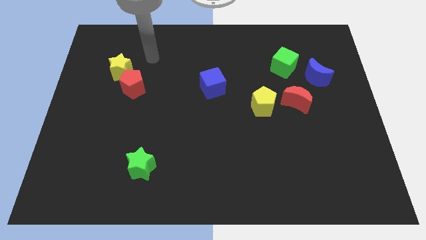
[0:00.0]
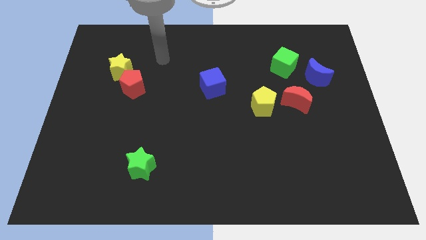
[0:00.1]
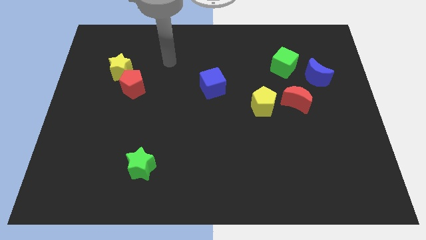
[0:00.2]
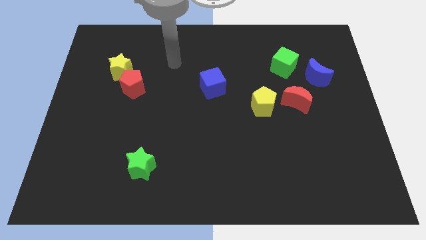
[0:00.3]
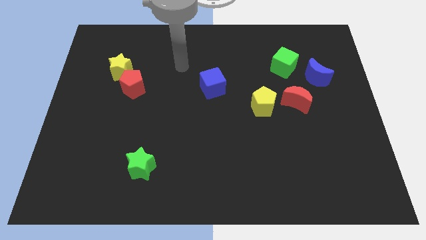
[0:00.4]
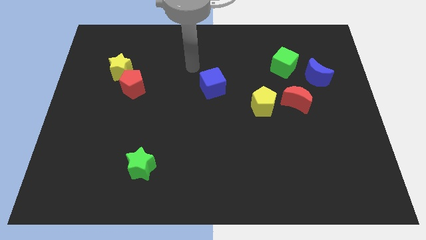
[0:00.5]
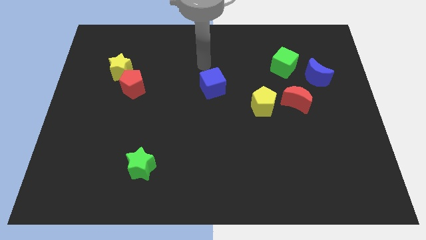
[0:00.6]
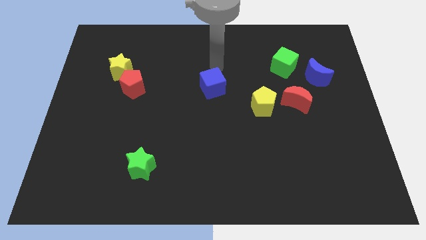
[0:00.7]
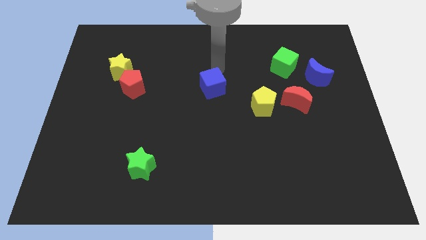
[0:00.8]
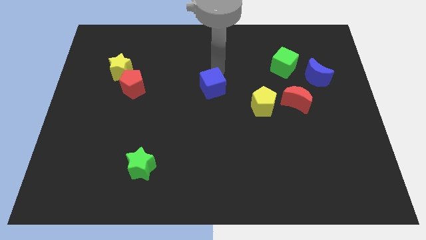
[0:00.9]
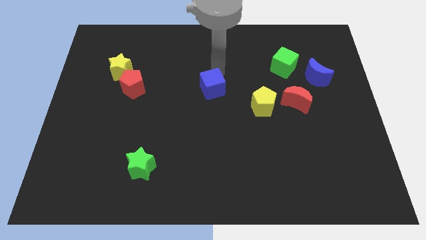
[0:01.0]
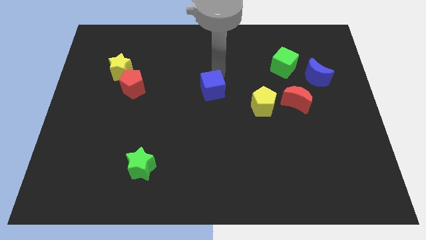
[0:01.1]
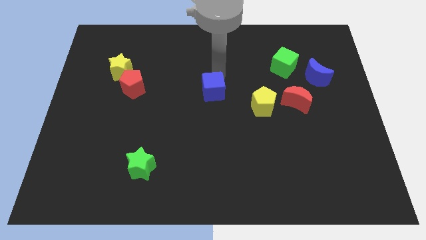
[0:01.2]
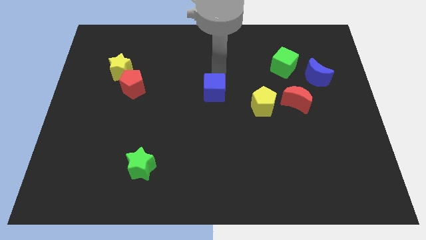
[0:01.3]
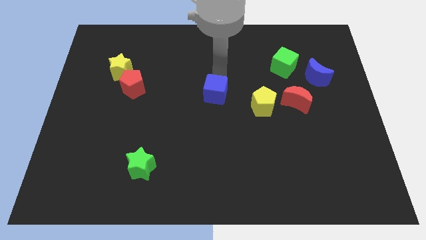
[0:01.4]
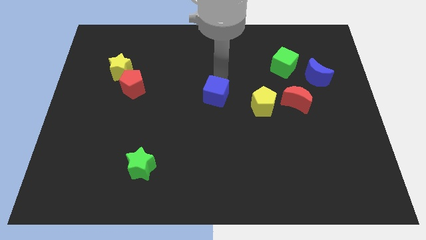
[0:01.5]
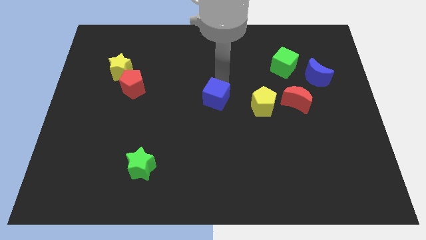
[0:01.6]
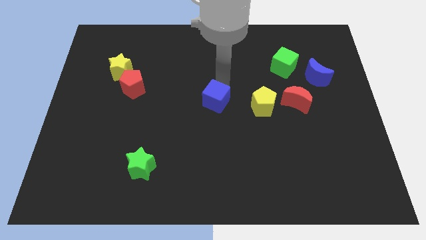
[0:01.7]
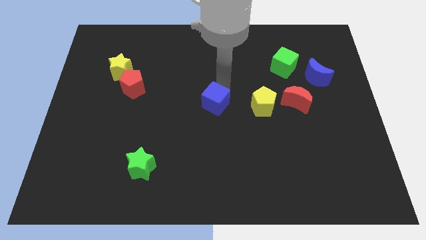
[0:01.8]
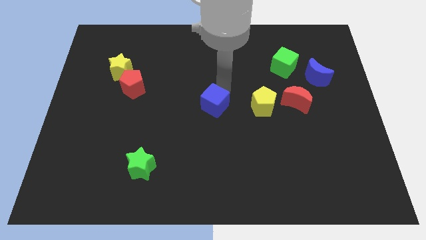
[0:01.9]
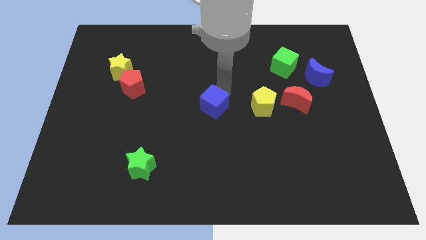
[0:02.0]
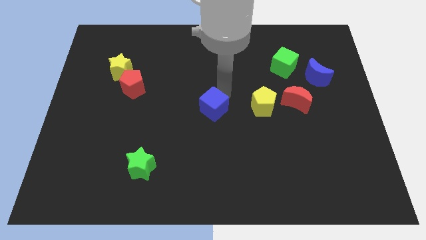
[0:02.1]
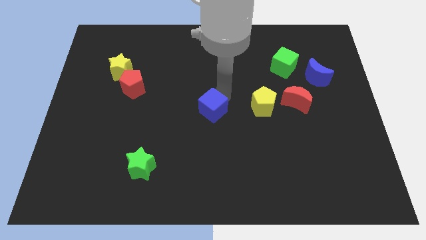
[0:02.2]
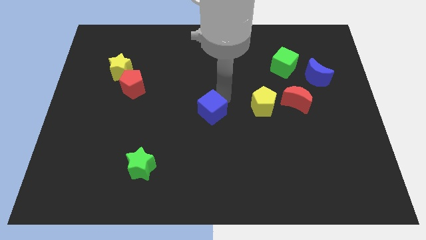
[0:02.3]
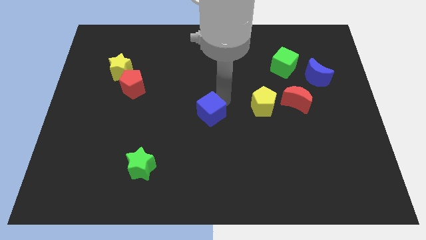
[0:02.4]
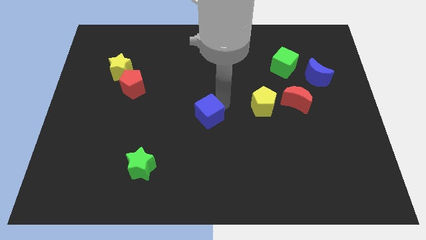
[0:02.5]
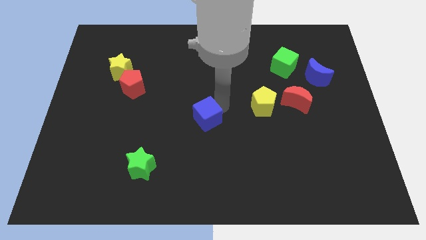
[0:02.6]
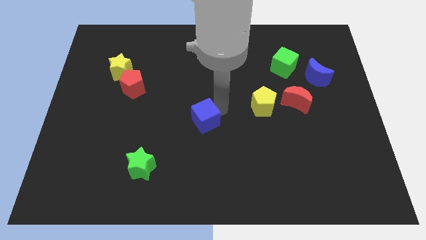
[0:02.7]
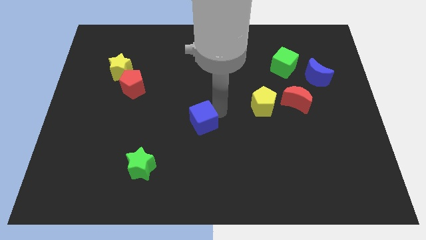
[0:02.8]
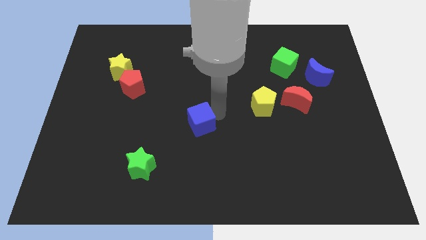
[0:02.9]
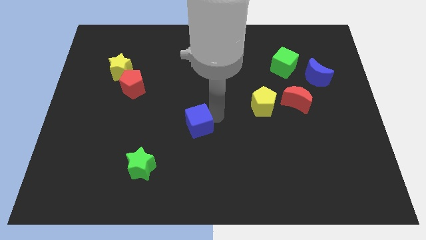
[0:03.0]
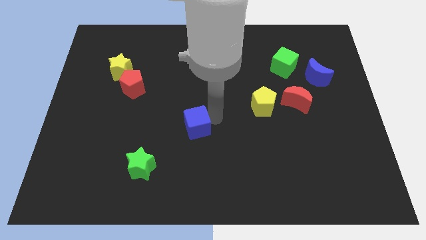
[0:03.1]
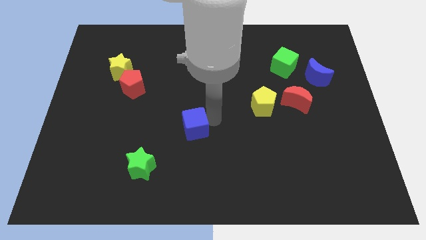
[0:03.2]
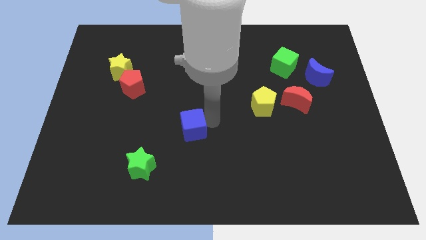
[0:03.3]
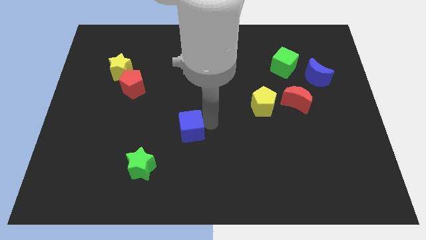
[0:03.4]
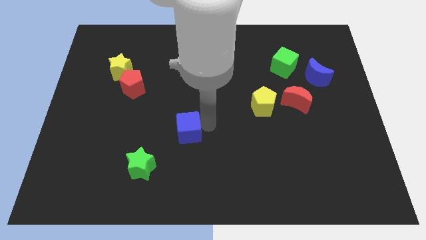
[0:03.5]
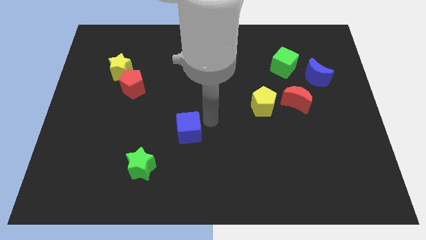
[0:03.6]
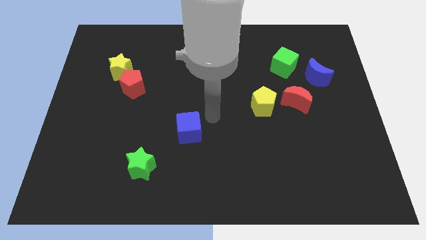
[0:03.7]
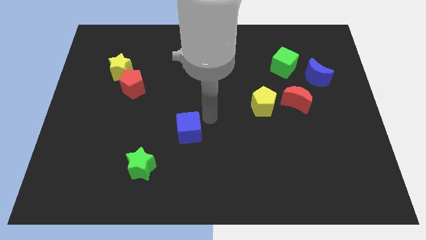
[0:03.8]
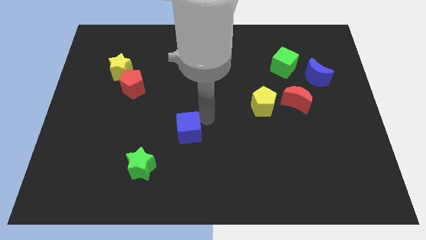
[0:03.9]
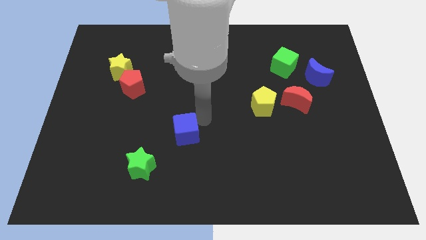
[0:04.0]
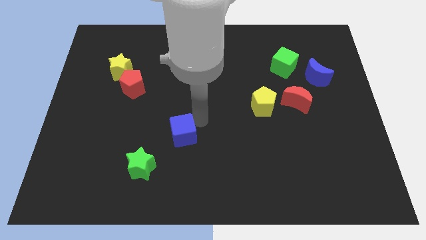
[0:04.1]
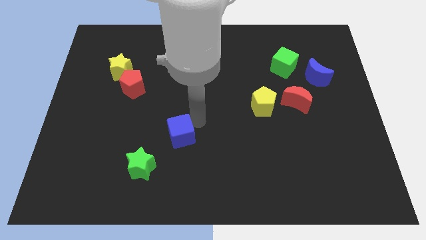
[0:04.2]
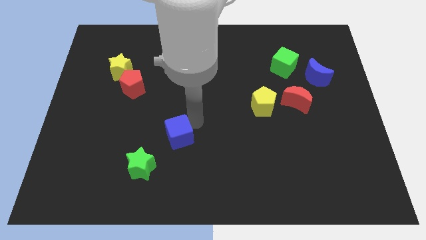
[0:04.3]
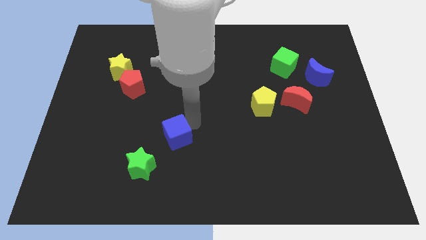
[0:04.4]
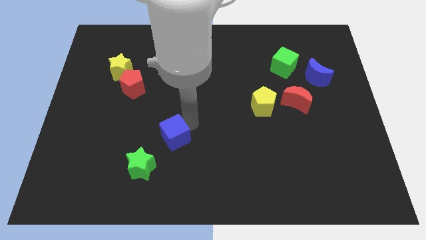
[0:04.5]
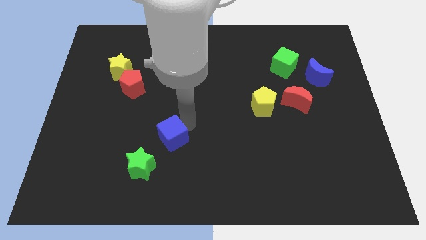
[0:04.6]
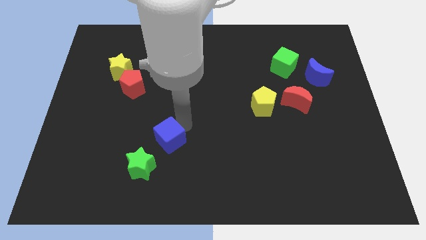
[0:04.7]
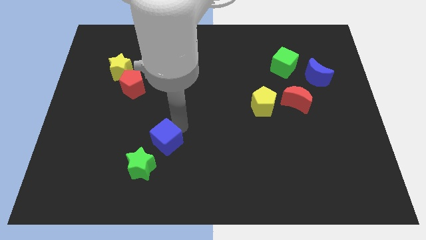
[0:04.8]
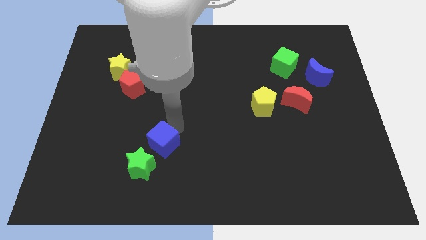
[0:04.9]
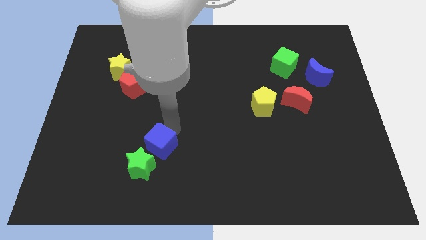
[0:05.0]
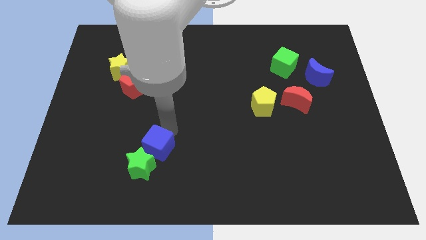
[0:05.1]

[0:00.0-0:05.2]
move the blue cube towards the green star

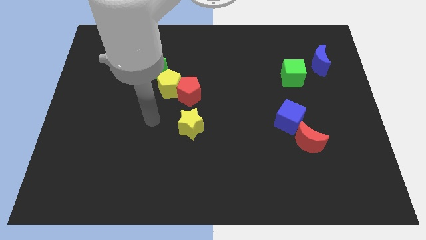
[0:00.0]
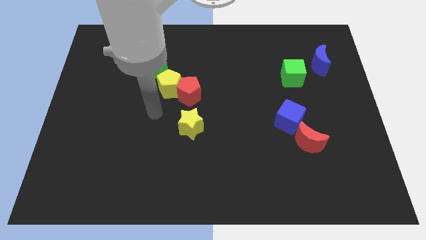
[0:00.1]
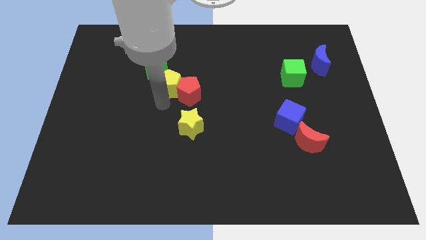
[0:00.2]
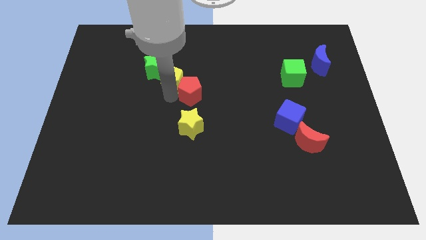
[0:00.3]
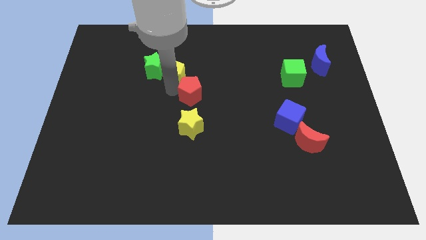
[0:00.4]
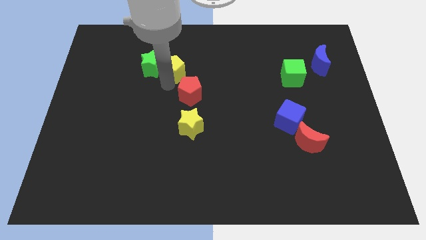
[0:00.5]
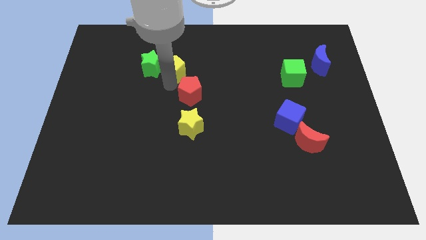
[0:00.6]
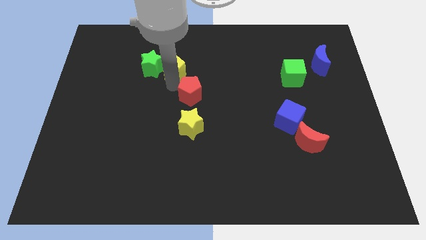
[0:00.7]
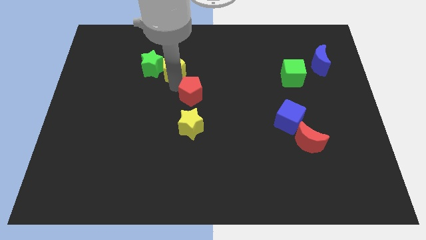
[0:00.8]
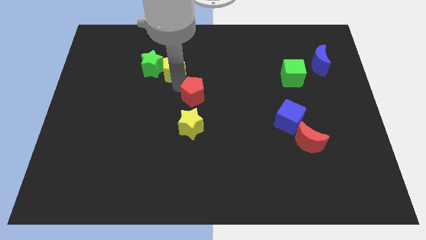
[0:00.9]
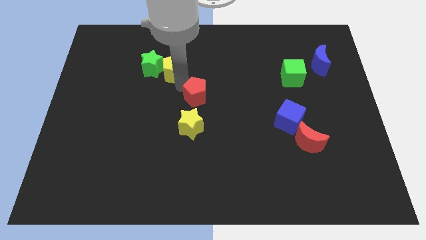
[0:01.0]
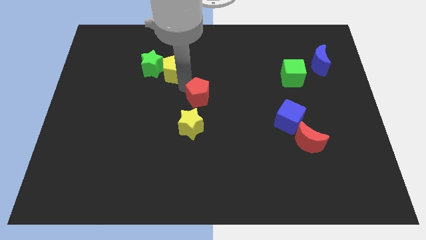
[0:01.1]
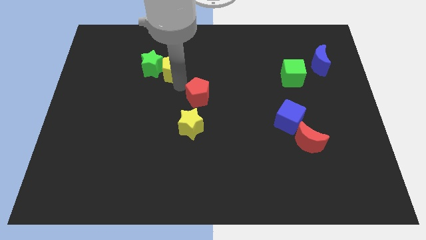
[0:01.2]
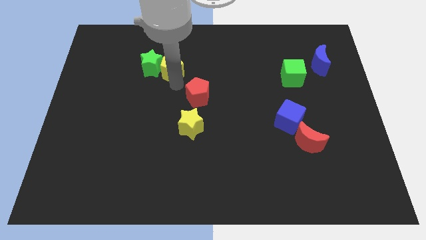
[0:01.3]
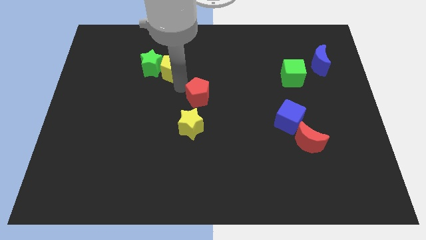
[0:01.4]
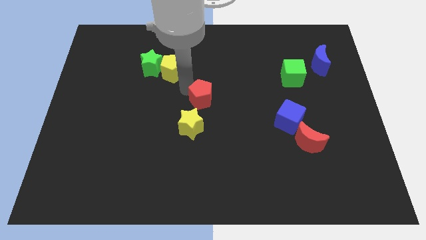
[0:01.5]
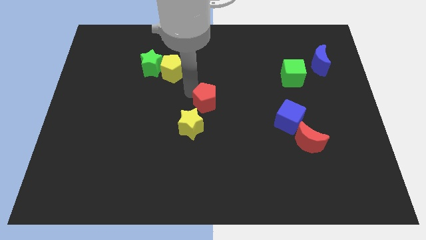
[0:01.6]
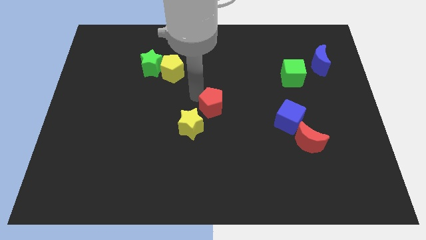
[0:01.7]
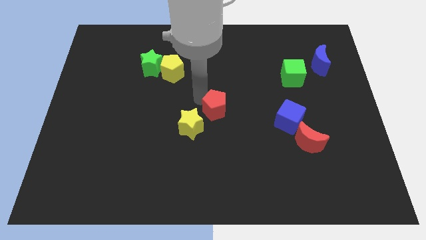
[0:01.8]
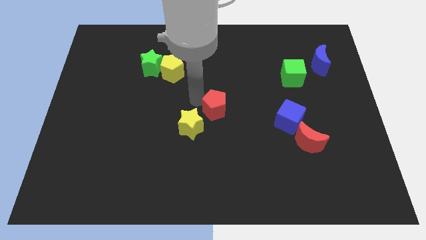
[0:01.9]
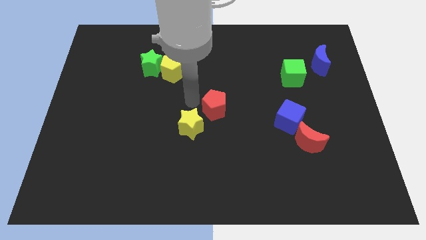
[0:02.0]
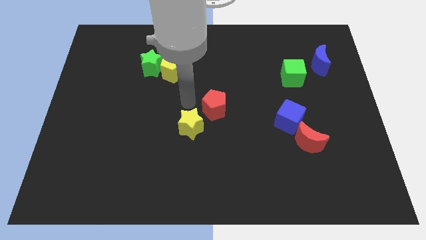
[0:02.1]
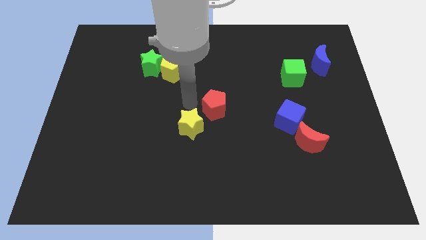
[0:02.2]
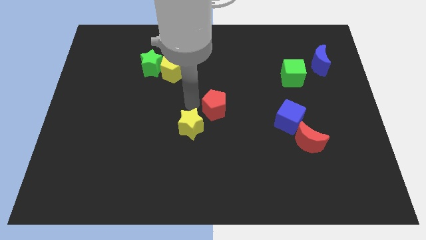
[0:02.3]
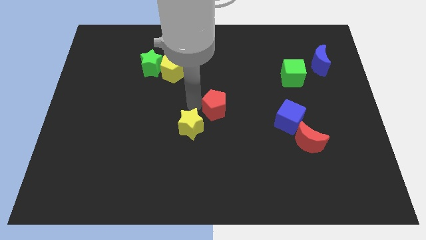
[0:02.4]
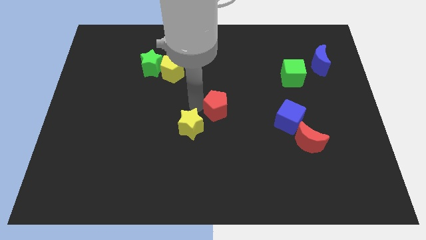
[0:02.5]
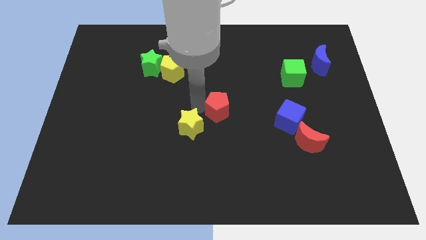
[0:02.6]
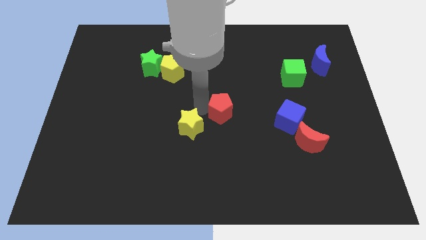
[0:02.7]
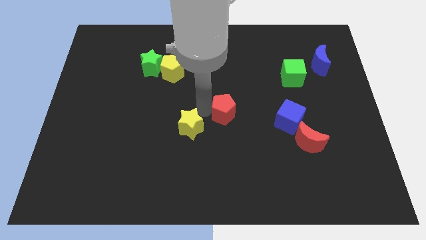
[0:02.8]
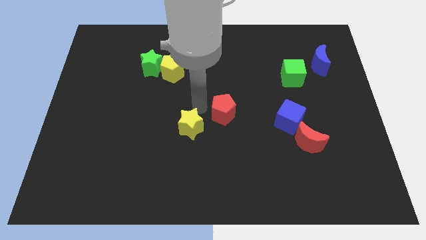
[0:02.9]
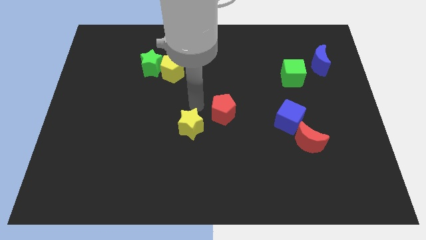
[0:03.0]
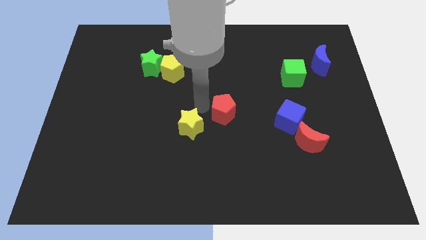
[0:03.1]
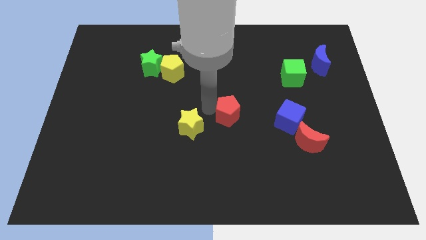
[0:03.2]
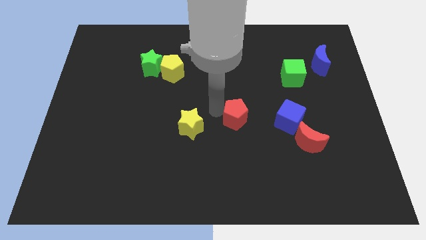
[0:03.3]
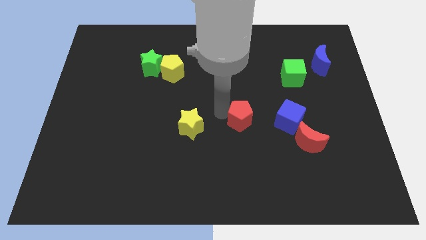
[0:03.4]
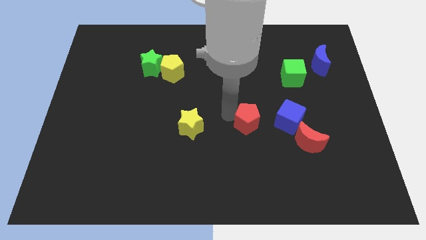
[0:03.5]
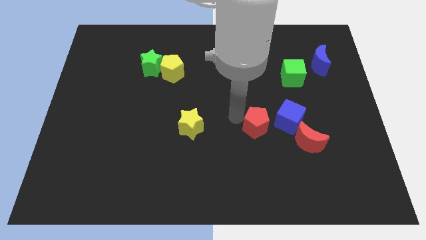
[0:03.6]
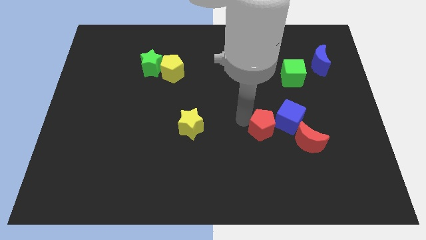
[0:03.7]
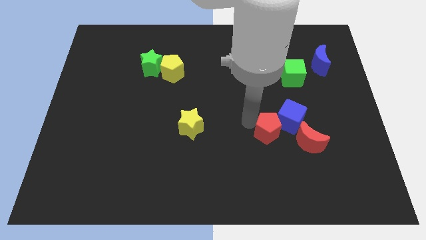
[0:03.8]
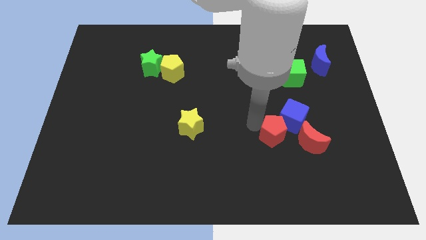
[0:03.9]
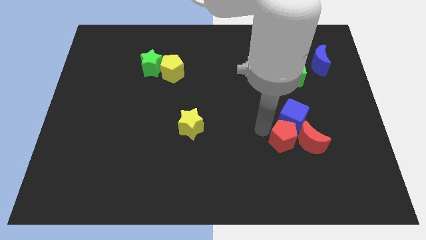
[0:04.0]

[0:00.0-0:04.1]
slide the red pentagon to the red moon
